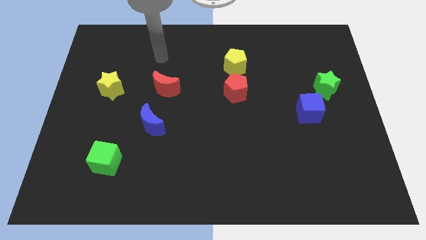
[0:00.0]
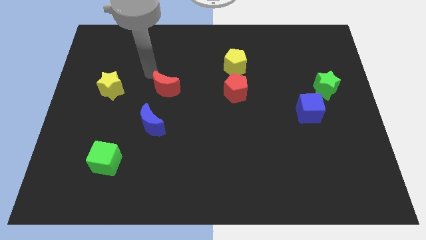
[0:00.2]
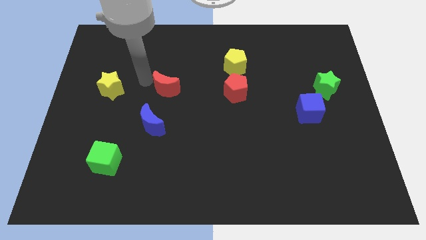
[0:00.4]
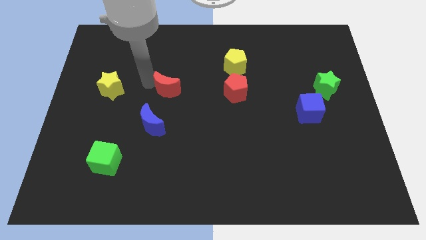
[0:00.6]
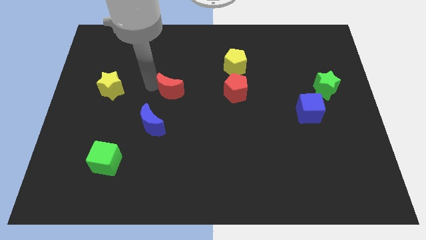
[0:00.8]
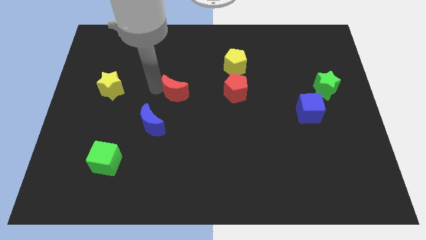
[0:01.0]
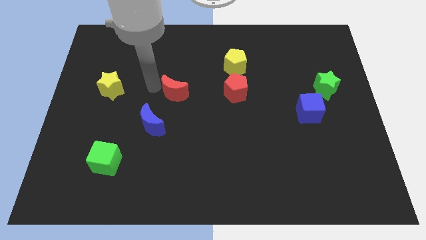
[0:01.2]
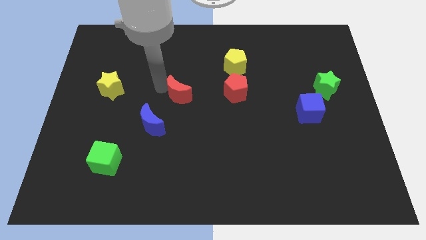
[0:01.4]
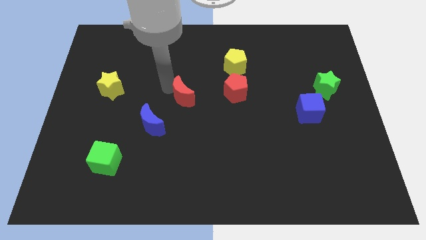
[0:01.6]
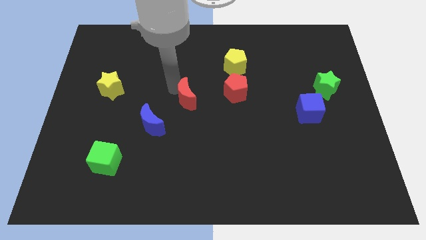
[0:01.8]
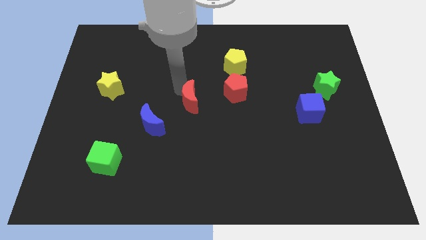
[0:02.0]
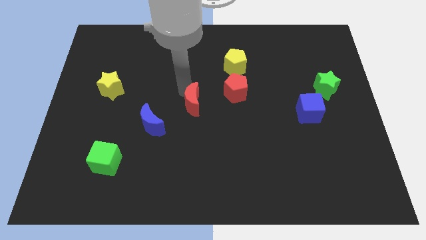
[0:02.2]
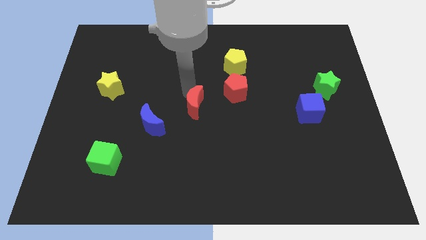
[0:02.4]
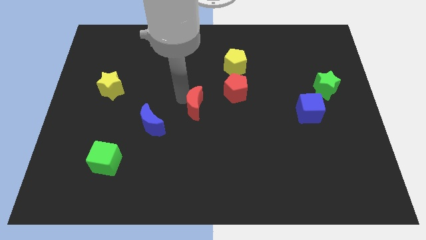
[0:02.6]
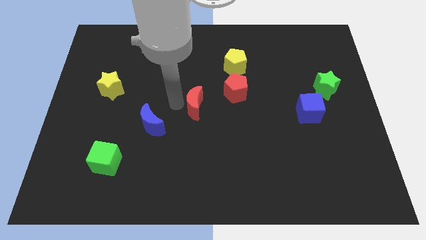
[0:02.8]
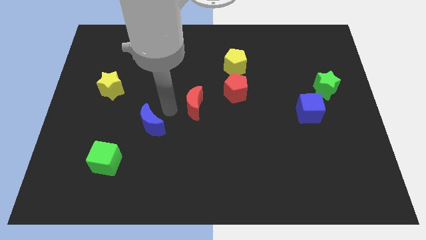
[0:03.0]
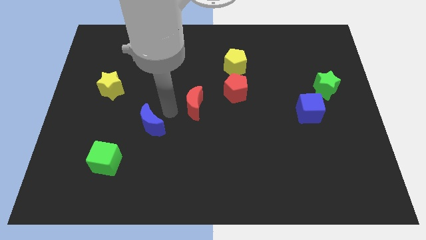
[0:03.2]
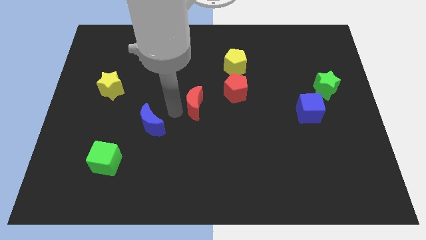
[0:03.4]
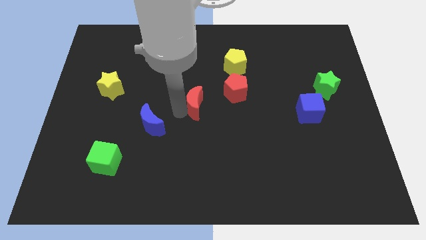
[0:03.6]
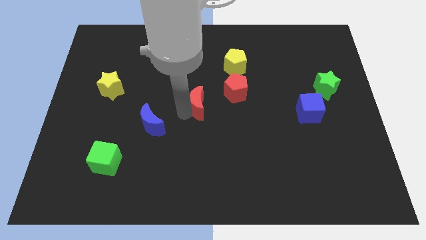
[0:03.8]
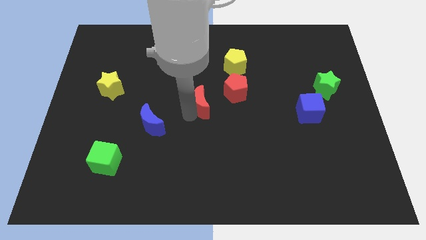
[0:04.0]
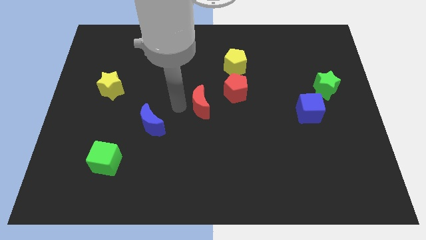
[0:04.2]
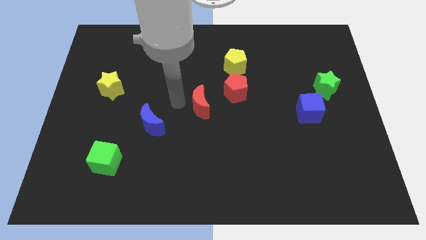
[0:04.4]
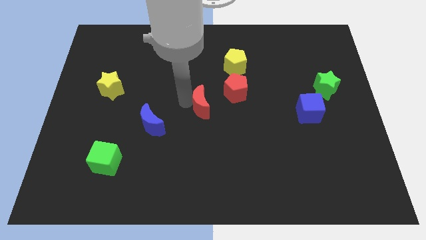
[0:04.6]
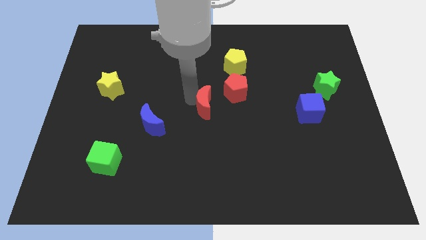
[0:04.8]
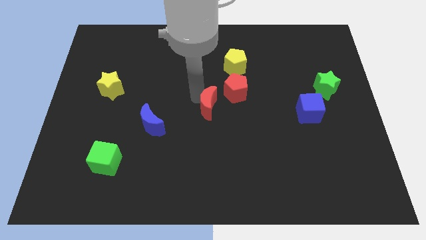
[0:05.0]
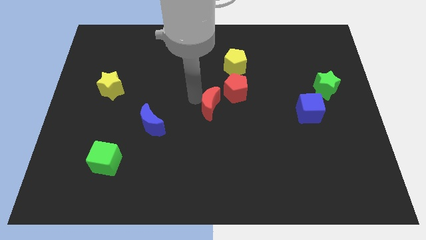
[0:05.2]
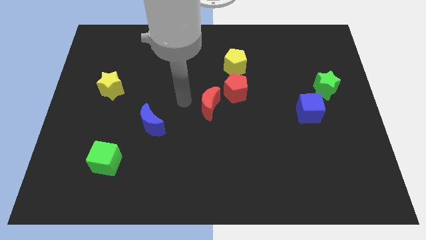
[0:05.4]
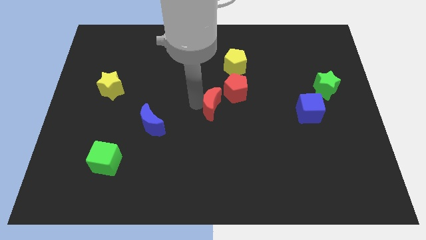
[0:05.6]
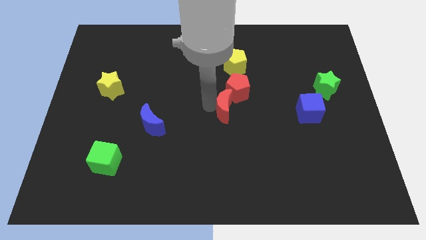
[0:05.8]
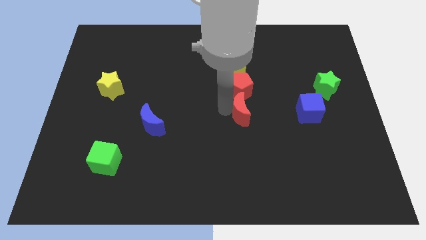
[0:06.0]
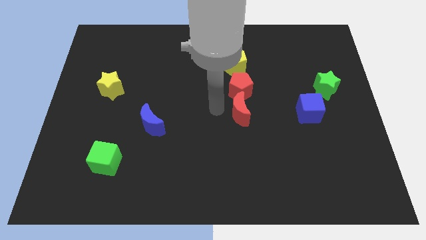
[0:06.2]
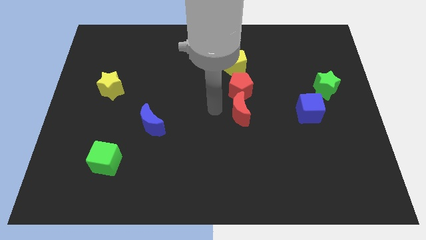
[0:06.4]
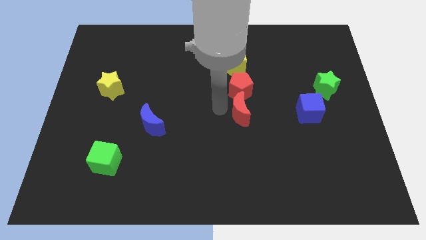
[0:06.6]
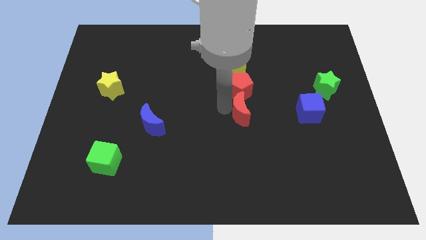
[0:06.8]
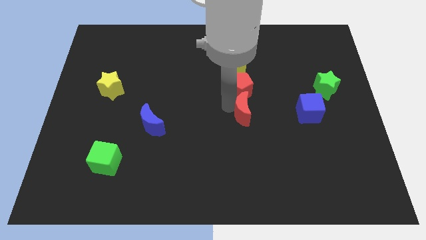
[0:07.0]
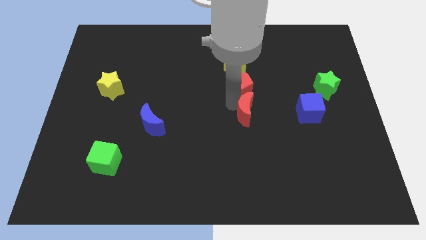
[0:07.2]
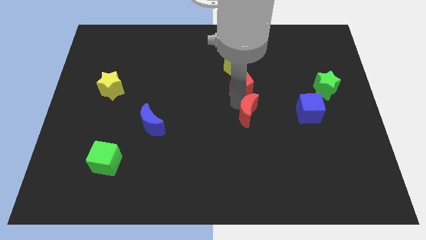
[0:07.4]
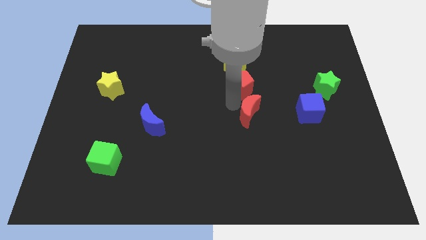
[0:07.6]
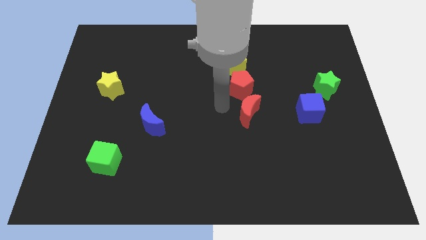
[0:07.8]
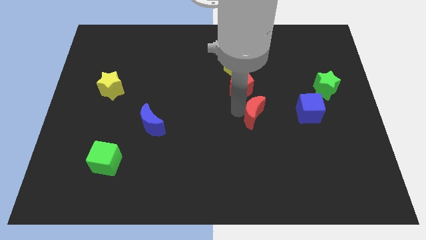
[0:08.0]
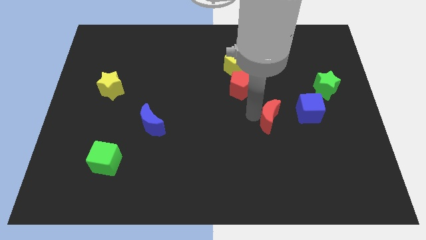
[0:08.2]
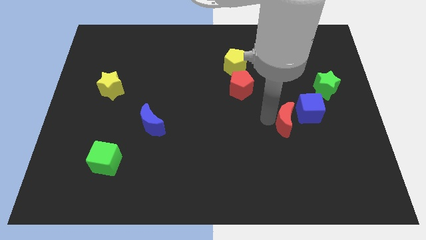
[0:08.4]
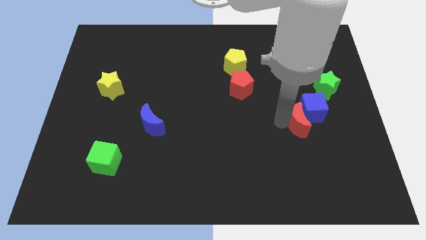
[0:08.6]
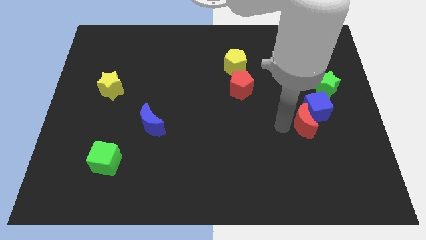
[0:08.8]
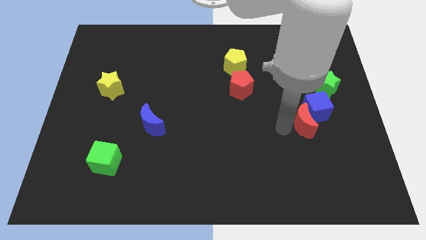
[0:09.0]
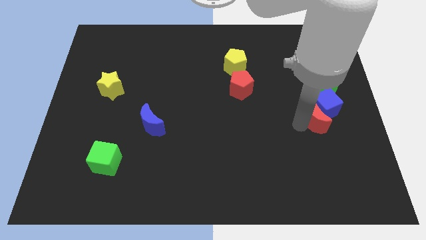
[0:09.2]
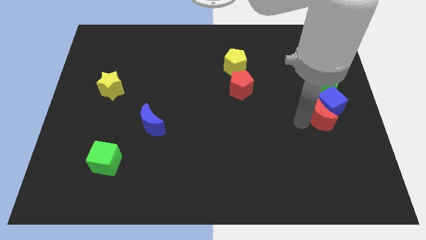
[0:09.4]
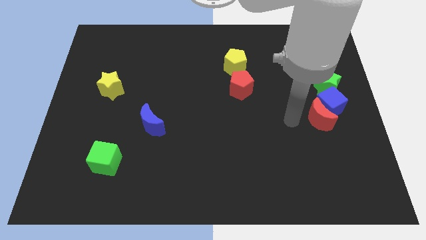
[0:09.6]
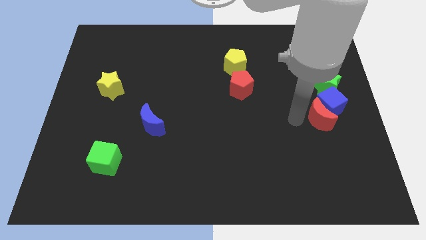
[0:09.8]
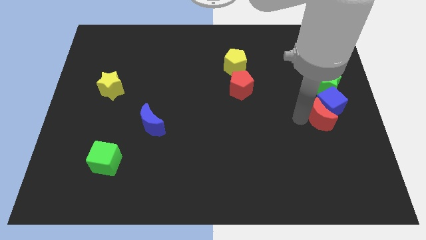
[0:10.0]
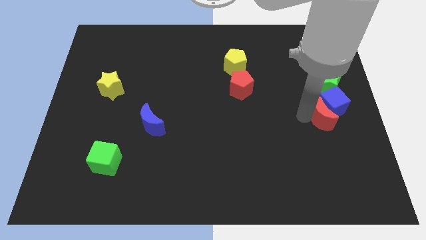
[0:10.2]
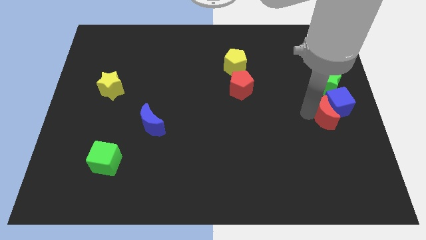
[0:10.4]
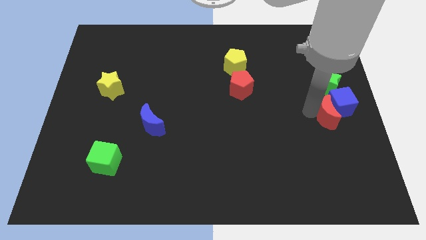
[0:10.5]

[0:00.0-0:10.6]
put the red moon to the right side of the board

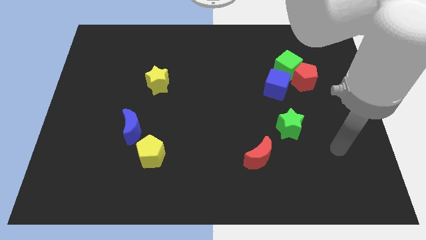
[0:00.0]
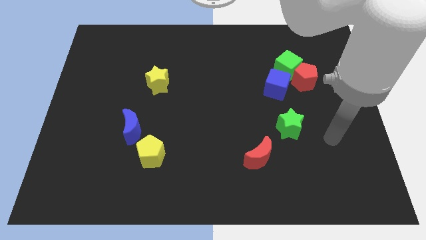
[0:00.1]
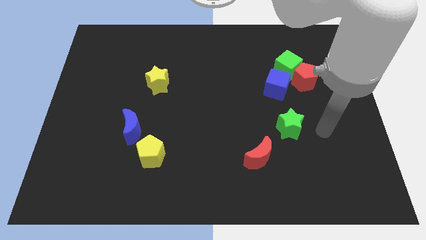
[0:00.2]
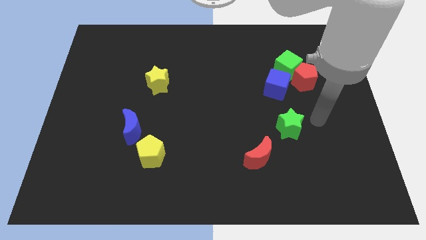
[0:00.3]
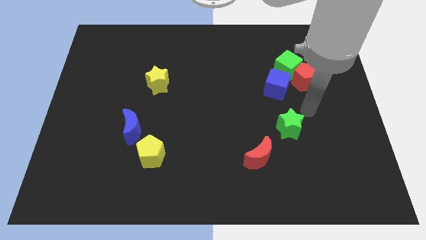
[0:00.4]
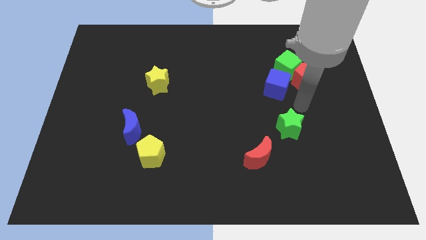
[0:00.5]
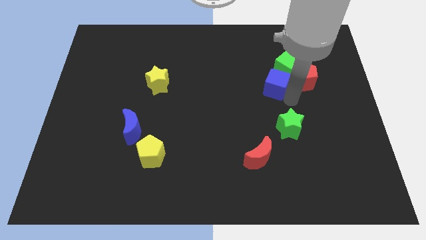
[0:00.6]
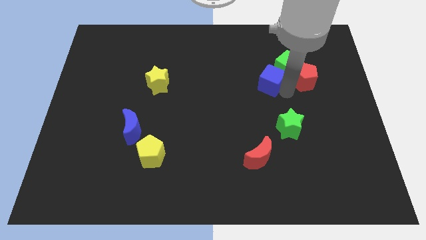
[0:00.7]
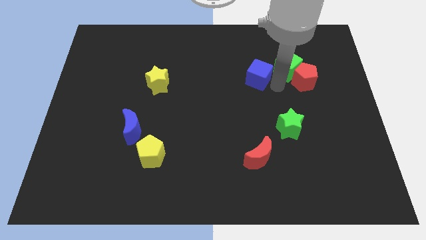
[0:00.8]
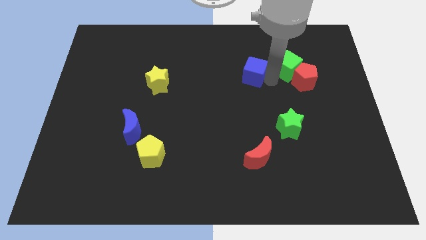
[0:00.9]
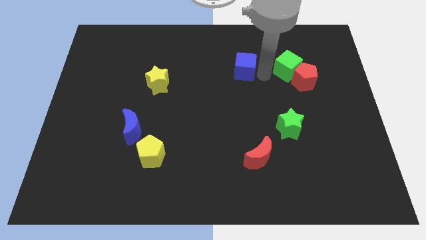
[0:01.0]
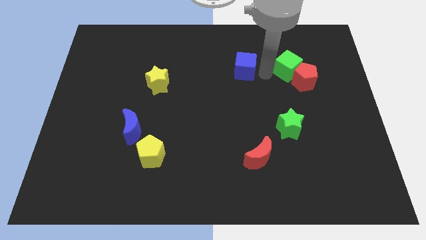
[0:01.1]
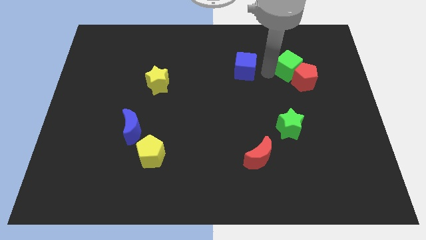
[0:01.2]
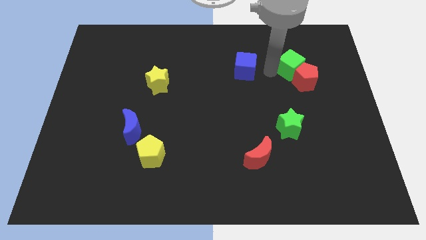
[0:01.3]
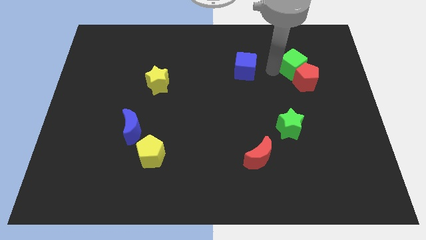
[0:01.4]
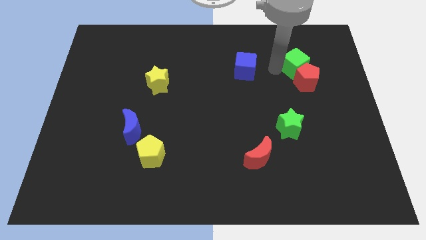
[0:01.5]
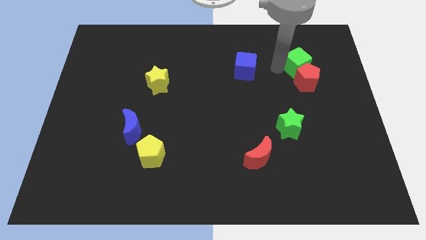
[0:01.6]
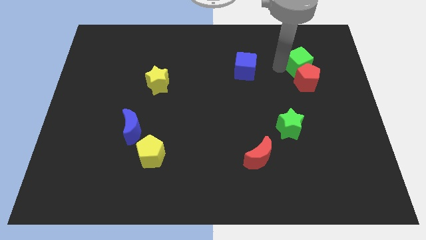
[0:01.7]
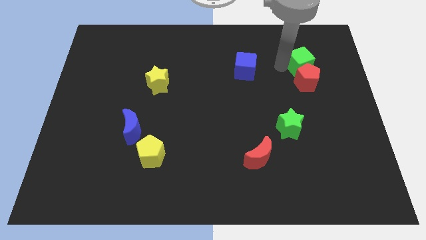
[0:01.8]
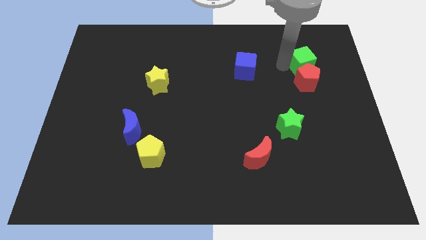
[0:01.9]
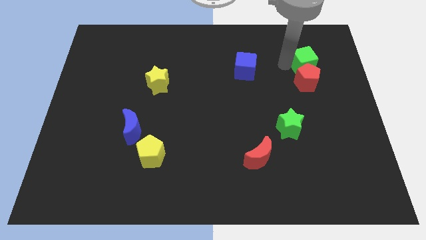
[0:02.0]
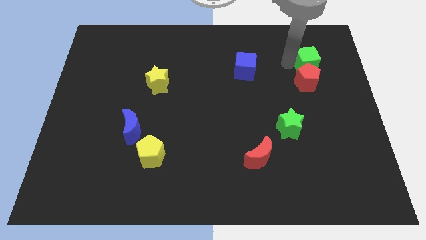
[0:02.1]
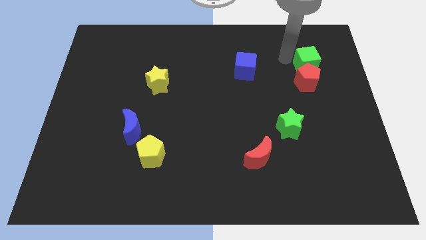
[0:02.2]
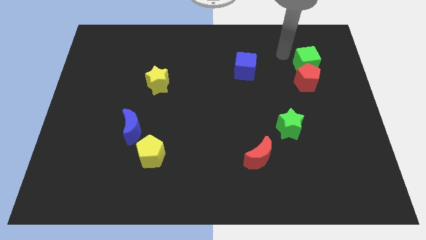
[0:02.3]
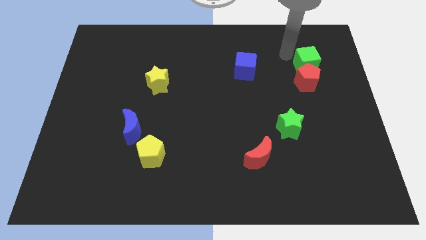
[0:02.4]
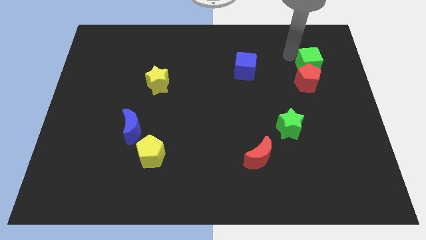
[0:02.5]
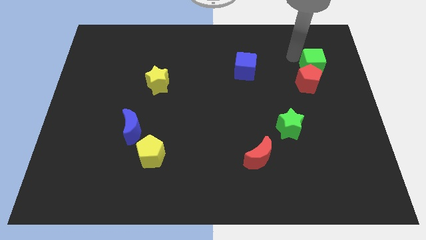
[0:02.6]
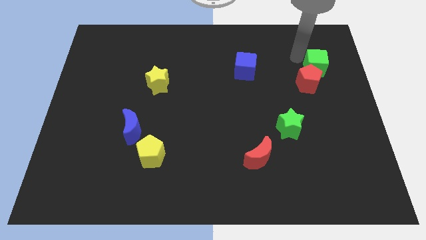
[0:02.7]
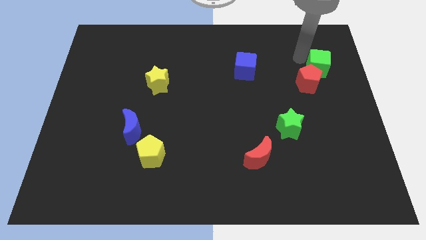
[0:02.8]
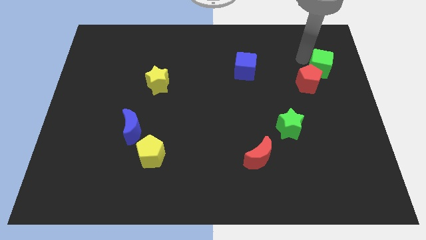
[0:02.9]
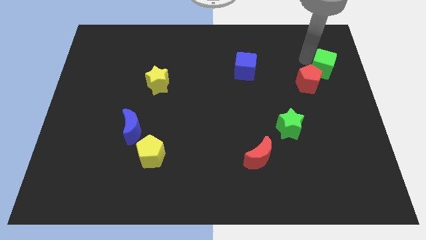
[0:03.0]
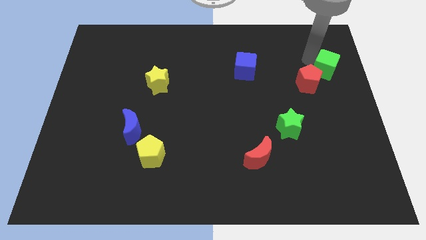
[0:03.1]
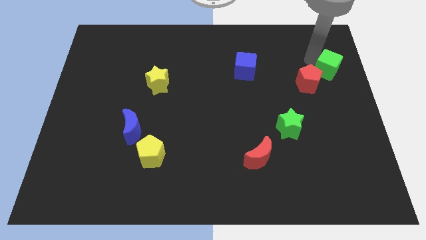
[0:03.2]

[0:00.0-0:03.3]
move the green cube to the center right
